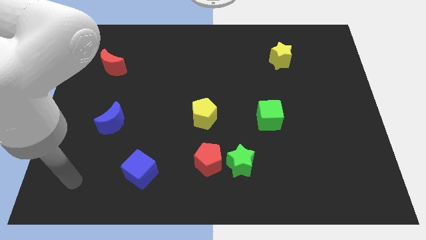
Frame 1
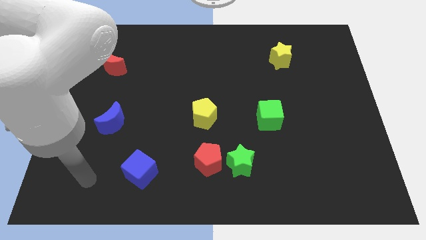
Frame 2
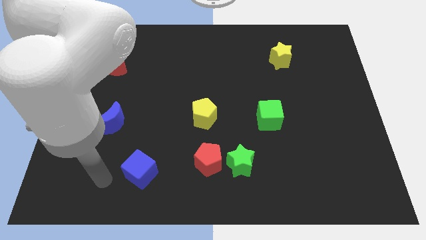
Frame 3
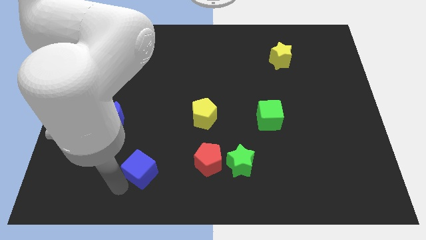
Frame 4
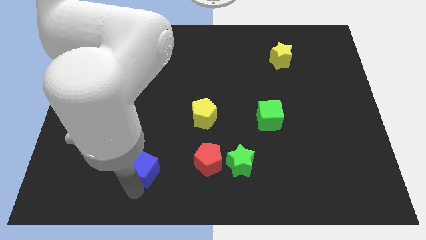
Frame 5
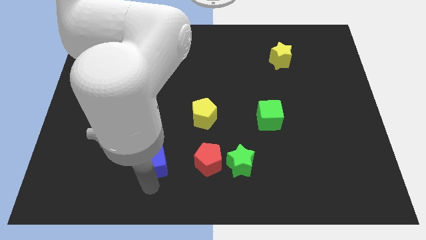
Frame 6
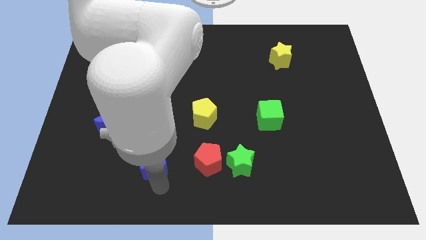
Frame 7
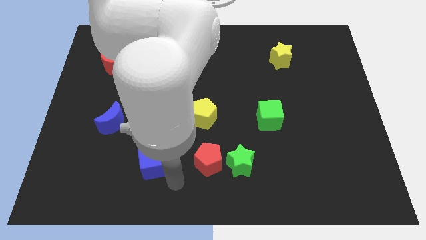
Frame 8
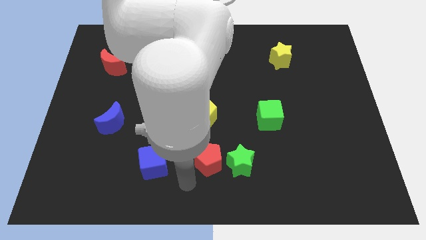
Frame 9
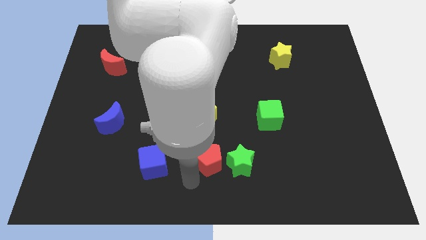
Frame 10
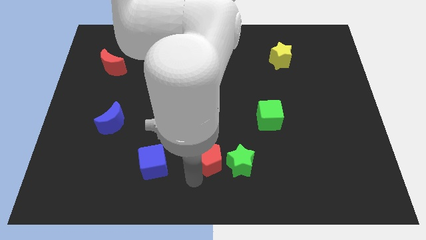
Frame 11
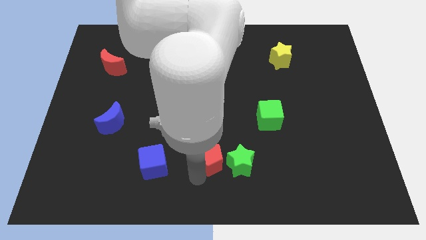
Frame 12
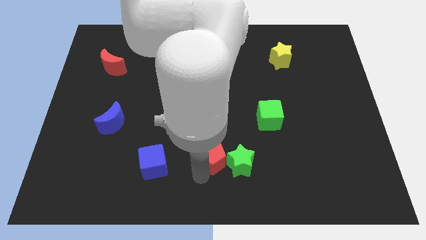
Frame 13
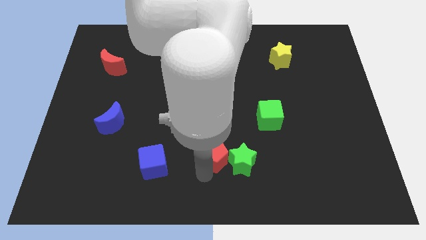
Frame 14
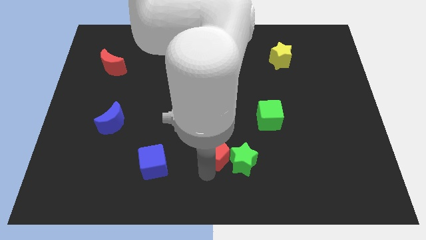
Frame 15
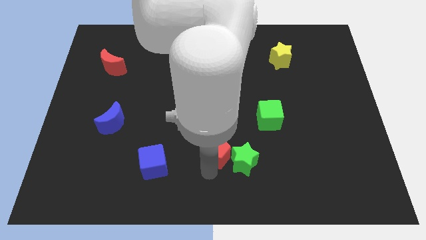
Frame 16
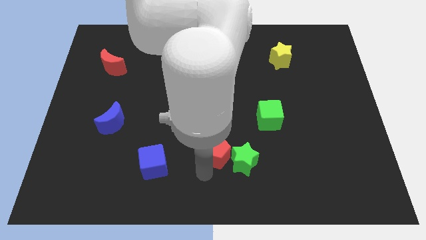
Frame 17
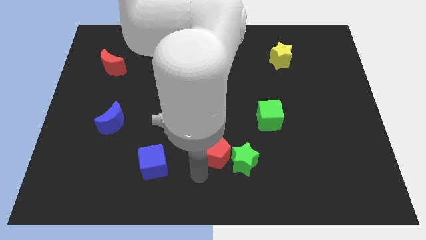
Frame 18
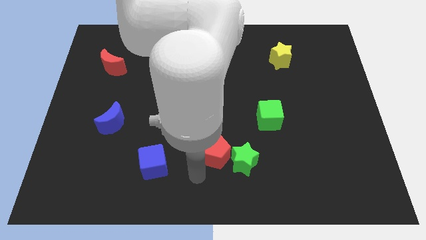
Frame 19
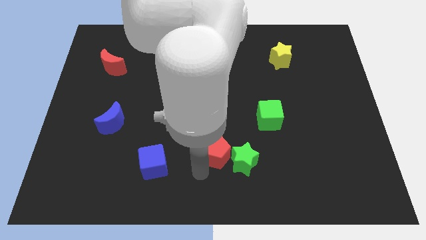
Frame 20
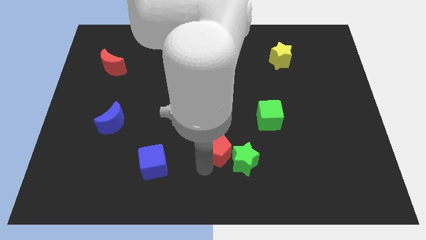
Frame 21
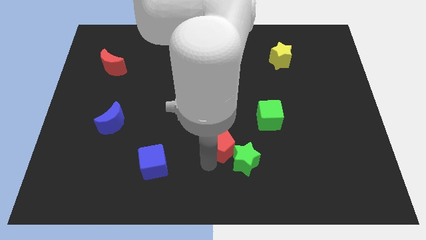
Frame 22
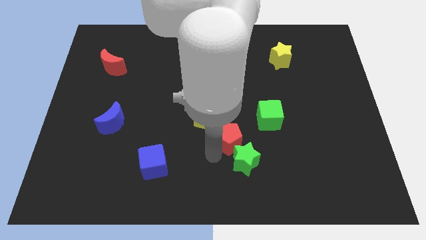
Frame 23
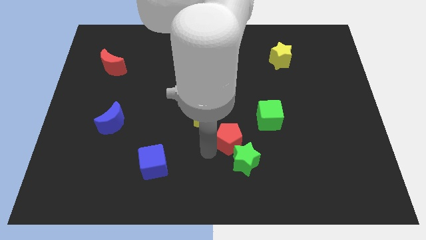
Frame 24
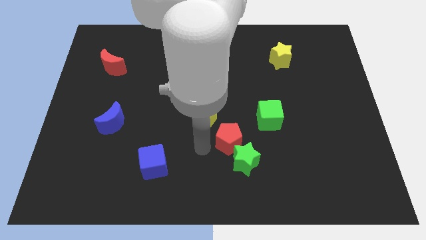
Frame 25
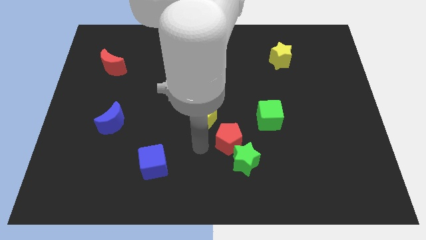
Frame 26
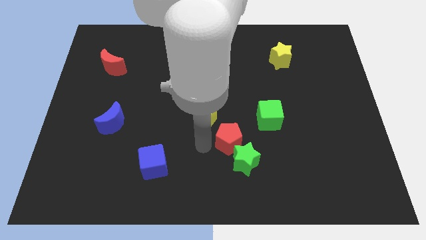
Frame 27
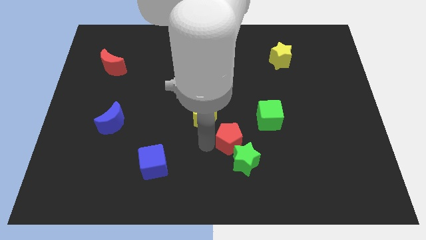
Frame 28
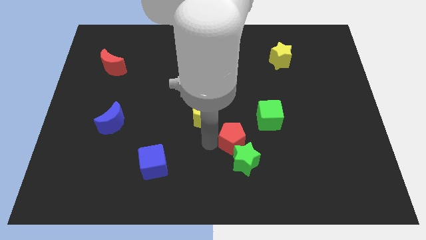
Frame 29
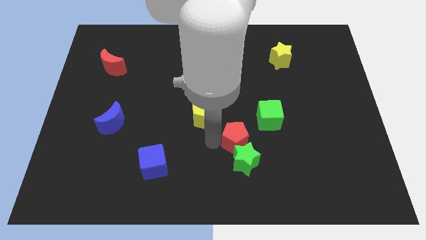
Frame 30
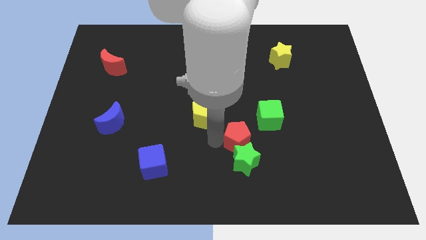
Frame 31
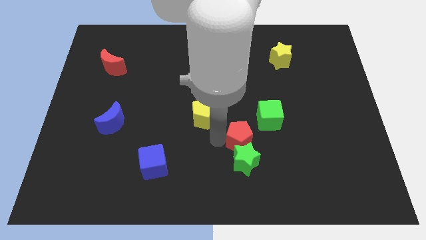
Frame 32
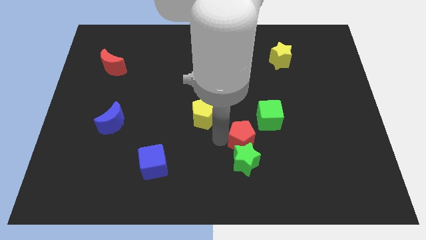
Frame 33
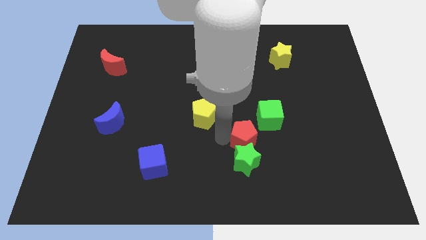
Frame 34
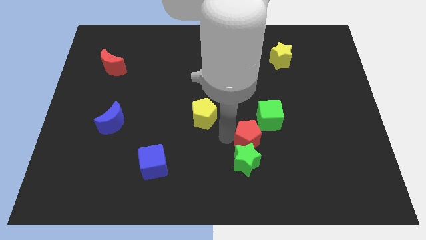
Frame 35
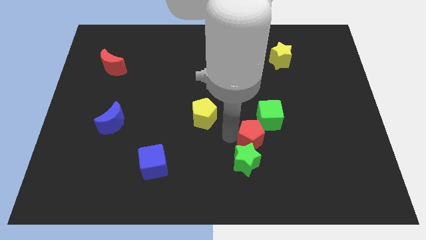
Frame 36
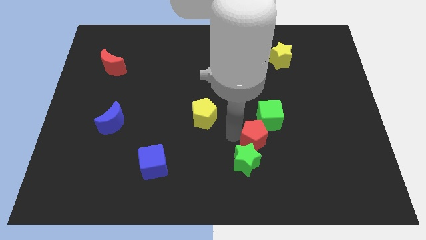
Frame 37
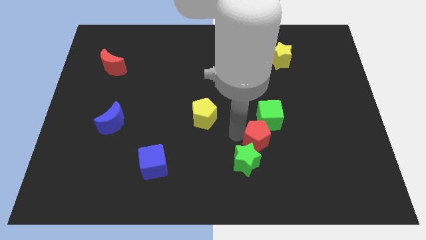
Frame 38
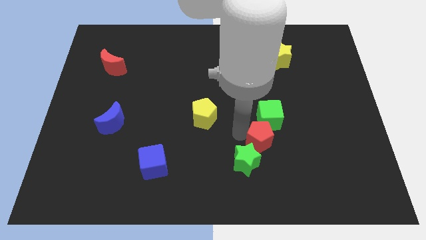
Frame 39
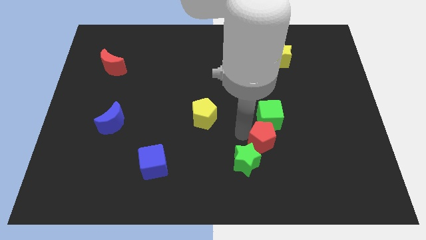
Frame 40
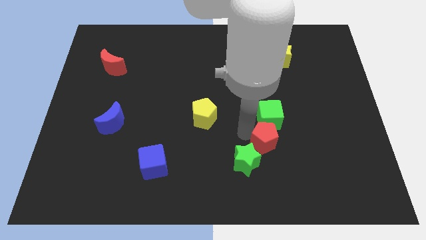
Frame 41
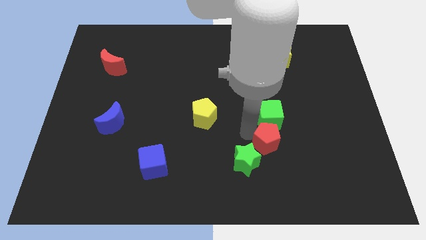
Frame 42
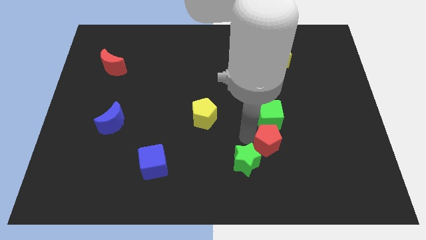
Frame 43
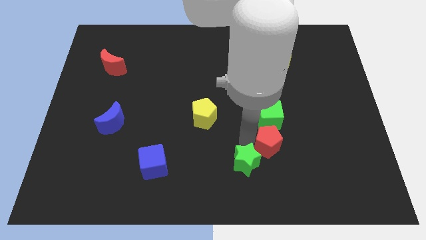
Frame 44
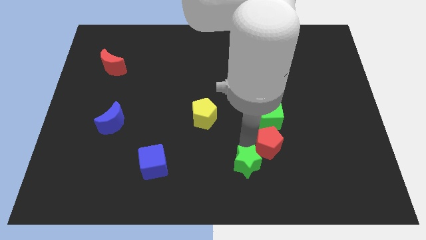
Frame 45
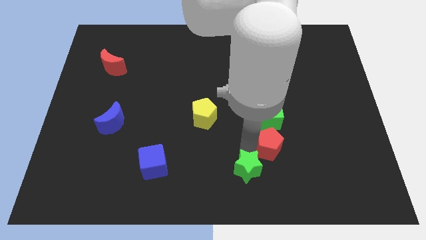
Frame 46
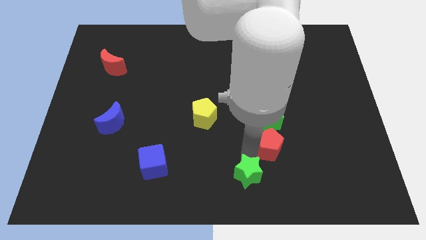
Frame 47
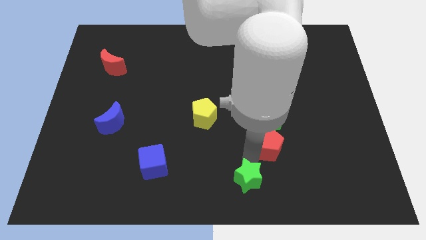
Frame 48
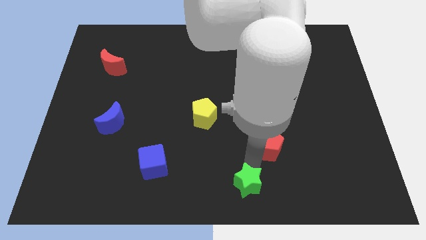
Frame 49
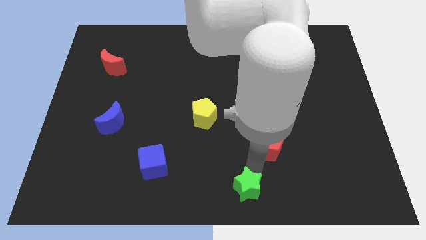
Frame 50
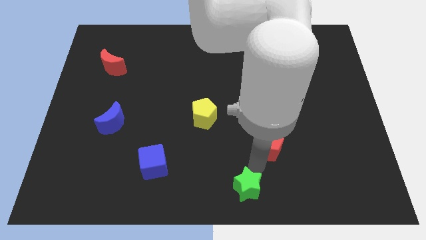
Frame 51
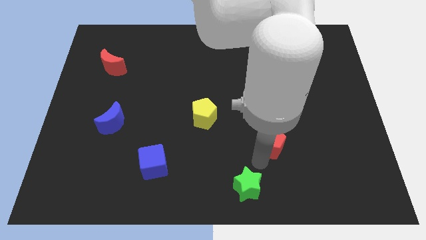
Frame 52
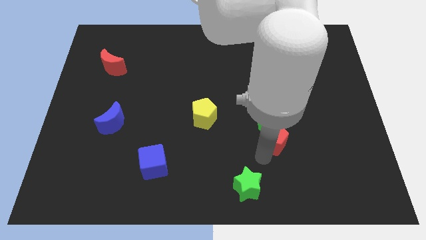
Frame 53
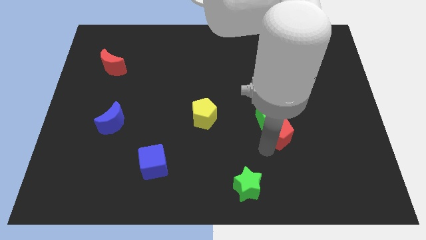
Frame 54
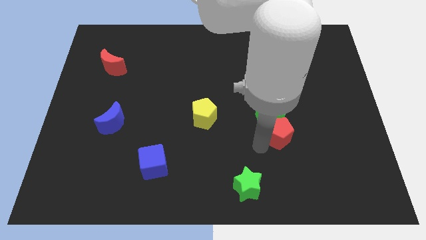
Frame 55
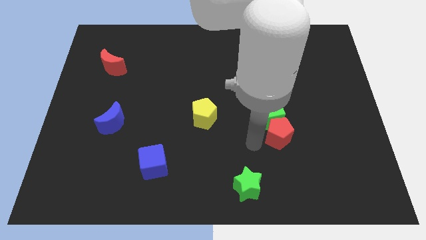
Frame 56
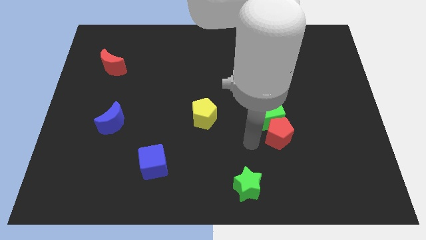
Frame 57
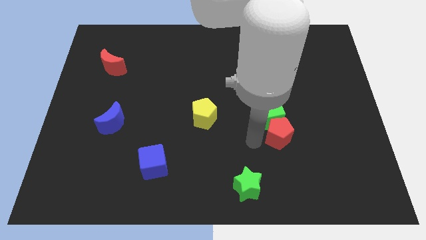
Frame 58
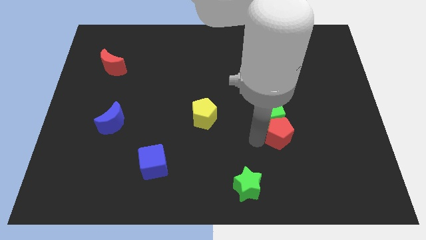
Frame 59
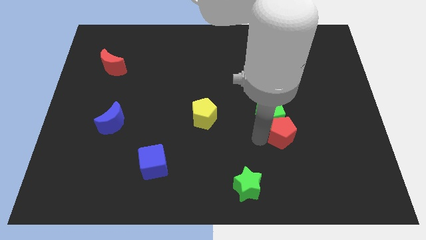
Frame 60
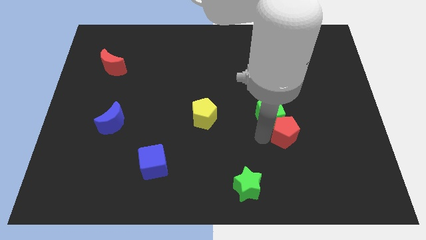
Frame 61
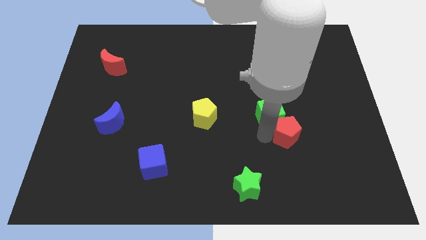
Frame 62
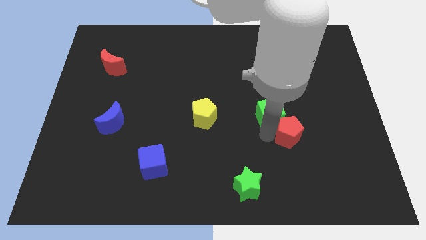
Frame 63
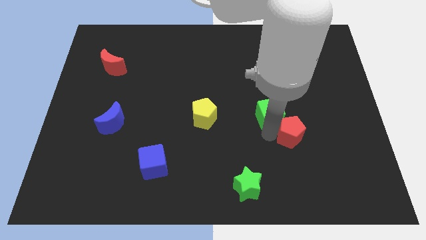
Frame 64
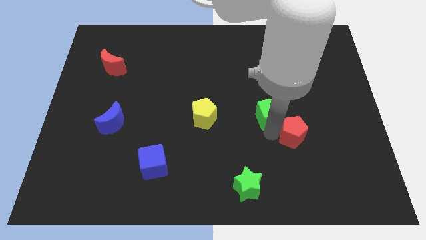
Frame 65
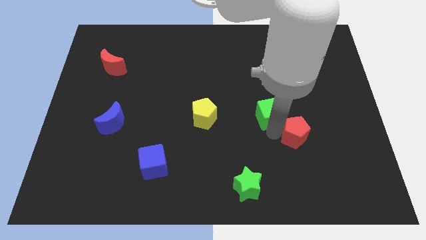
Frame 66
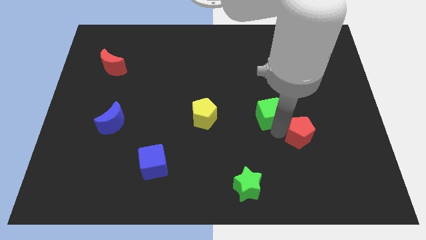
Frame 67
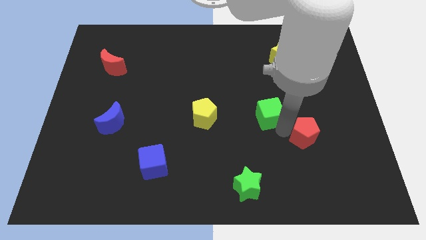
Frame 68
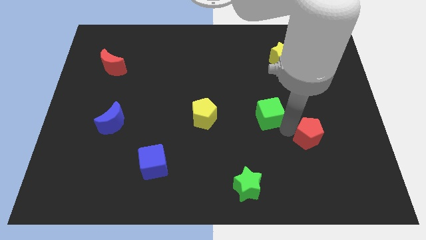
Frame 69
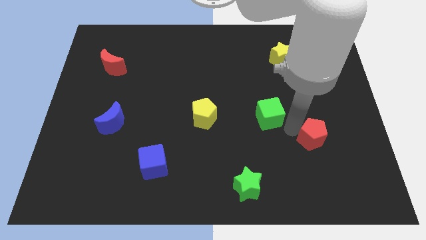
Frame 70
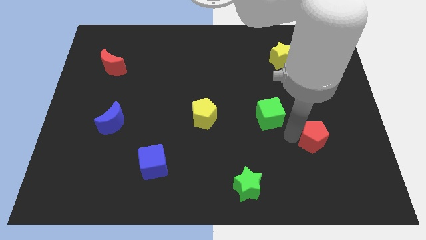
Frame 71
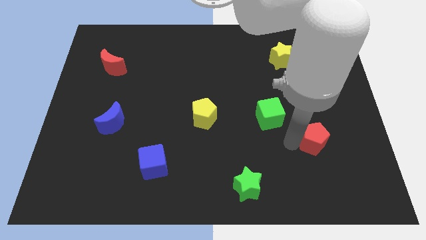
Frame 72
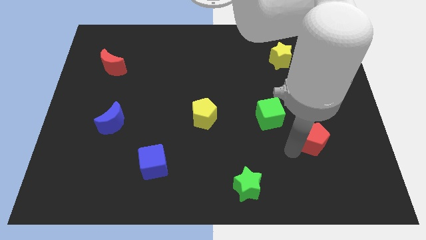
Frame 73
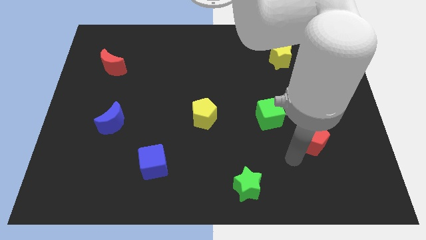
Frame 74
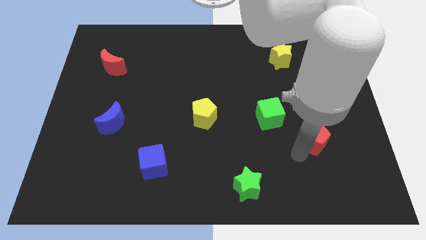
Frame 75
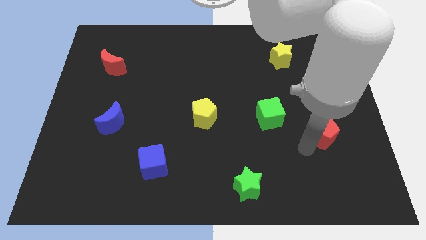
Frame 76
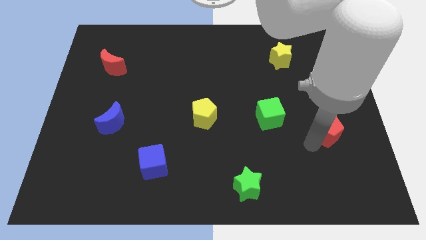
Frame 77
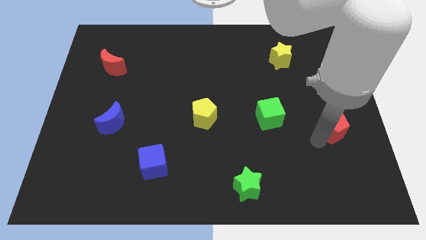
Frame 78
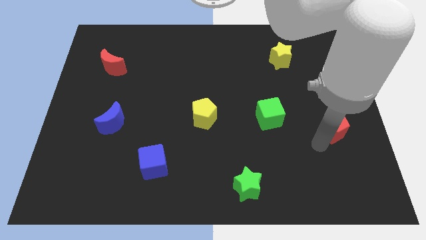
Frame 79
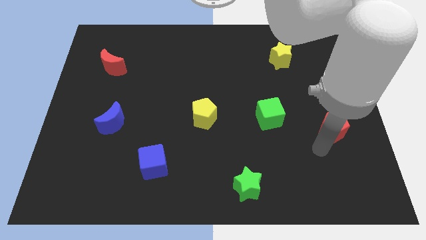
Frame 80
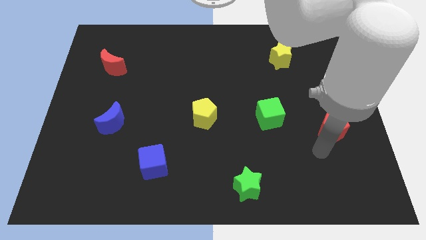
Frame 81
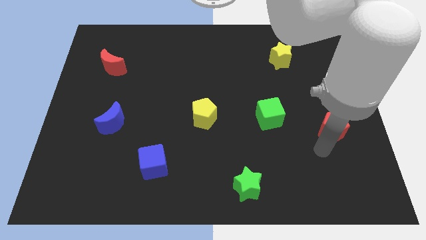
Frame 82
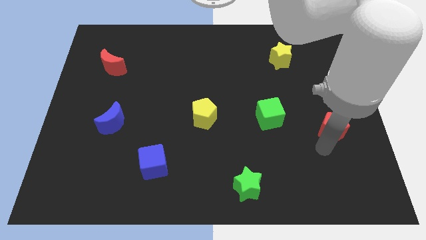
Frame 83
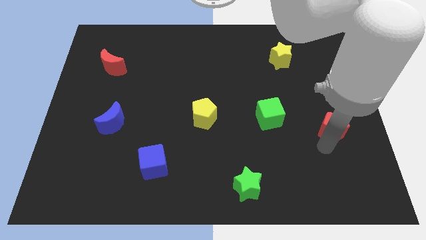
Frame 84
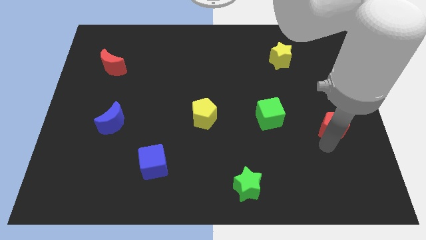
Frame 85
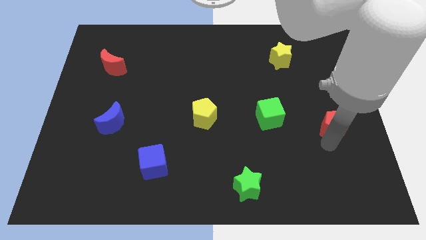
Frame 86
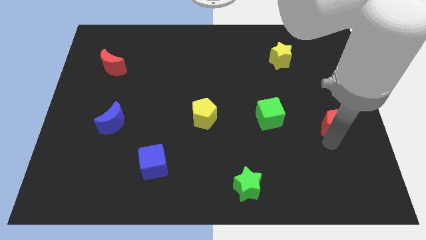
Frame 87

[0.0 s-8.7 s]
slide the red pentagon to the right side
